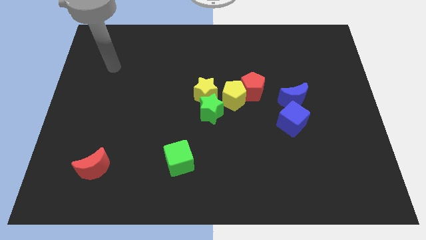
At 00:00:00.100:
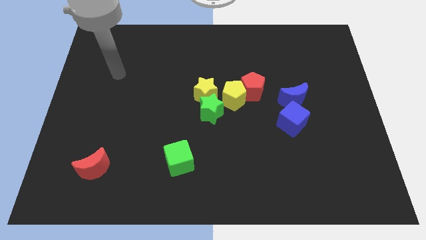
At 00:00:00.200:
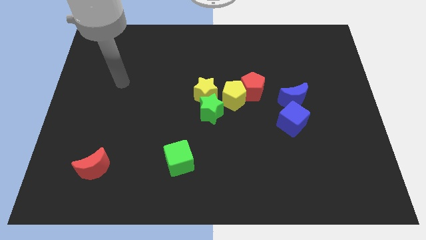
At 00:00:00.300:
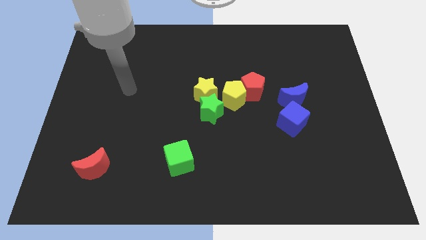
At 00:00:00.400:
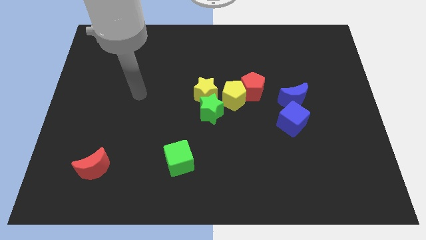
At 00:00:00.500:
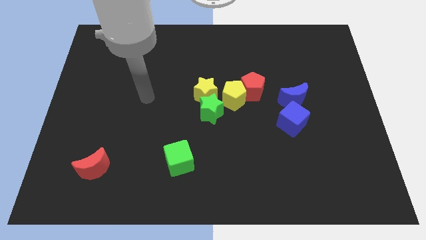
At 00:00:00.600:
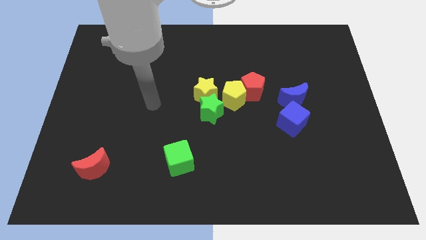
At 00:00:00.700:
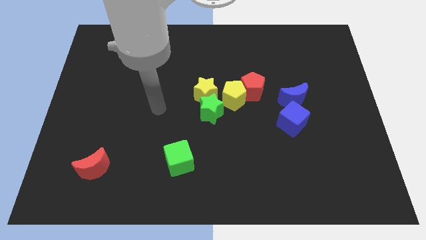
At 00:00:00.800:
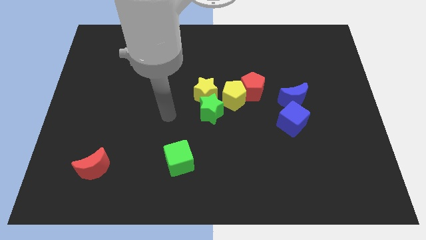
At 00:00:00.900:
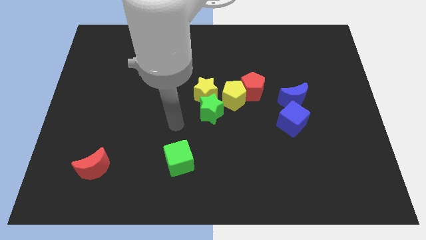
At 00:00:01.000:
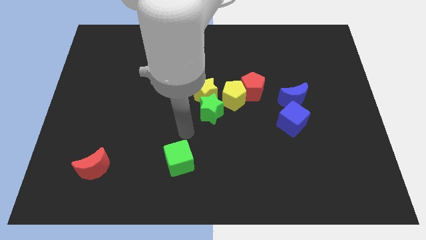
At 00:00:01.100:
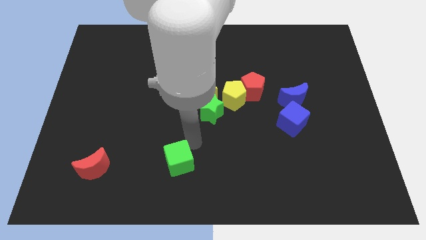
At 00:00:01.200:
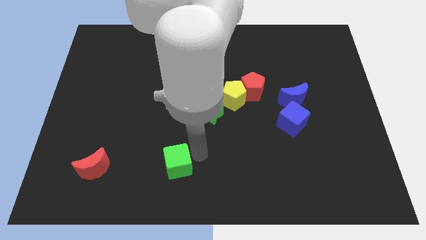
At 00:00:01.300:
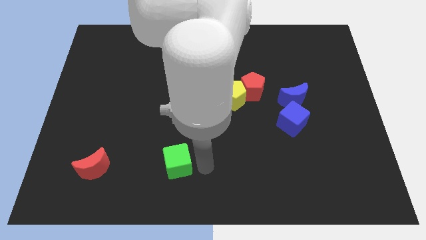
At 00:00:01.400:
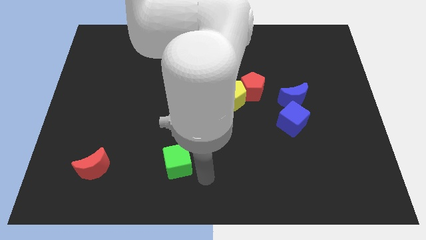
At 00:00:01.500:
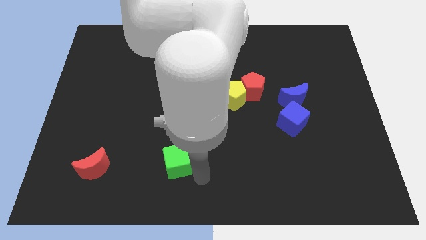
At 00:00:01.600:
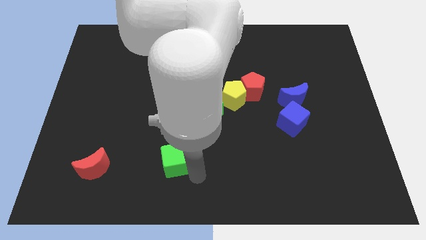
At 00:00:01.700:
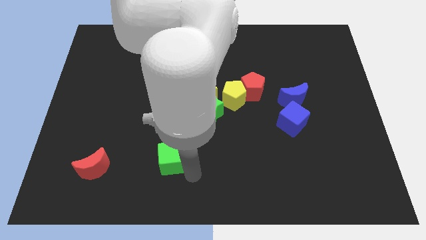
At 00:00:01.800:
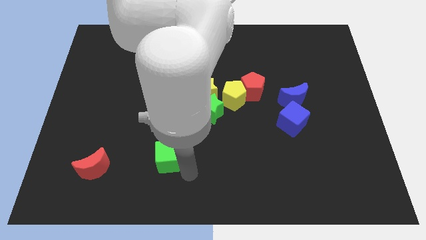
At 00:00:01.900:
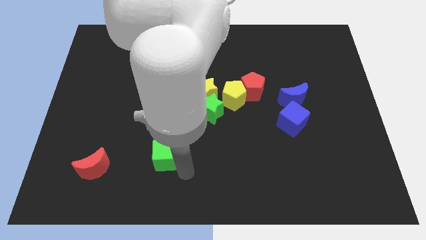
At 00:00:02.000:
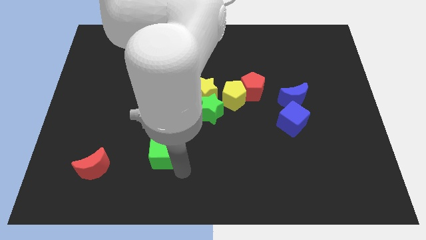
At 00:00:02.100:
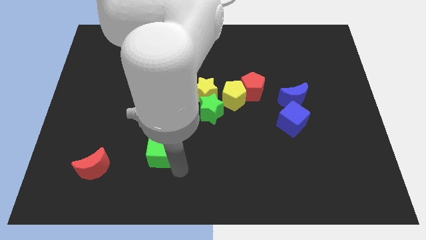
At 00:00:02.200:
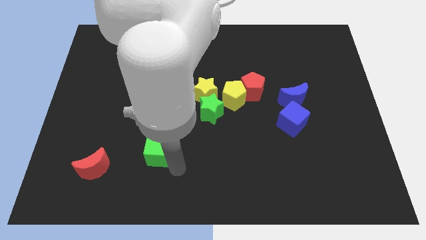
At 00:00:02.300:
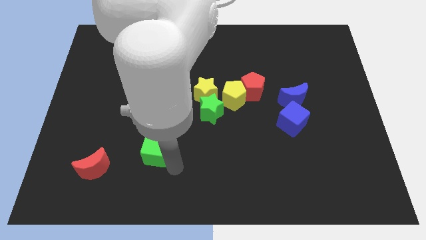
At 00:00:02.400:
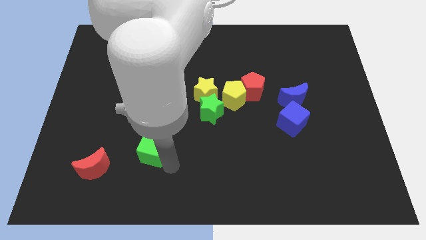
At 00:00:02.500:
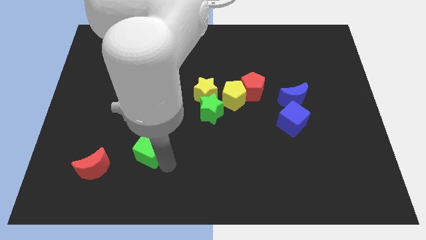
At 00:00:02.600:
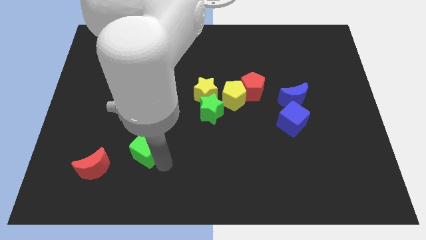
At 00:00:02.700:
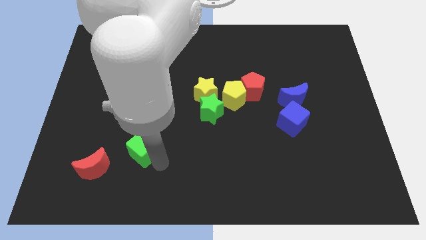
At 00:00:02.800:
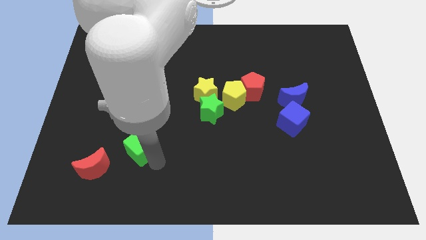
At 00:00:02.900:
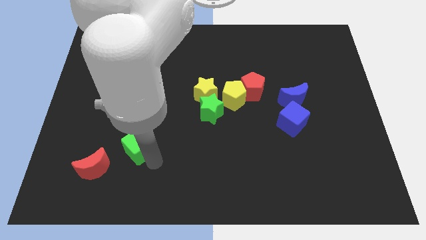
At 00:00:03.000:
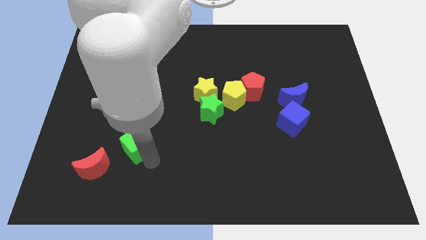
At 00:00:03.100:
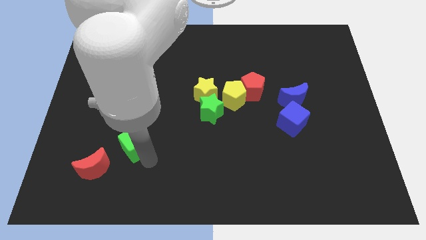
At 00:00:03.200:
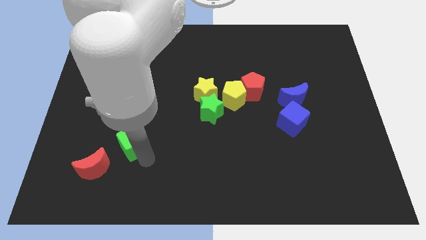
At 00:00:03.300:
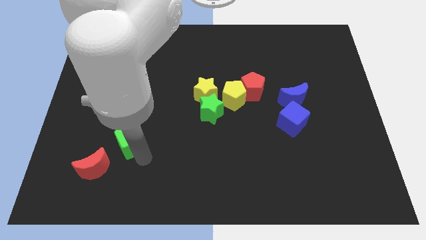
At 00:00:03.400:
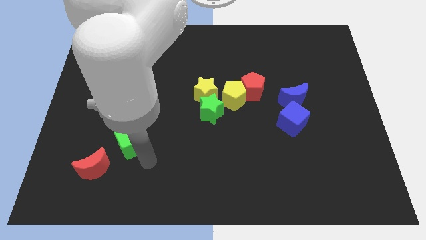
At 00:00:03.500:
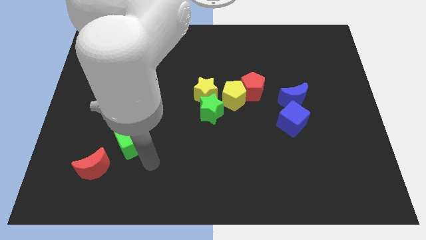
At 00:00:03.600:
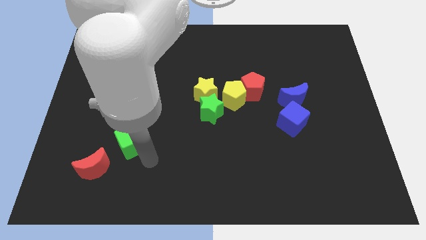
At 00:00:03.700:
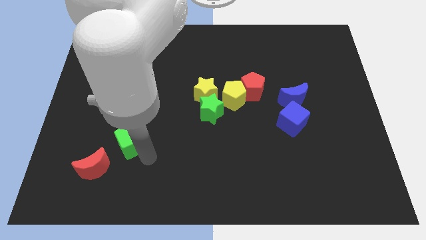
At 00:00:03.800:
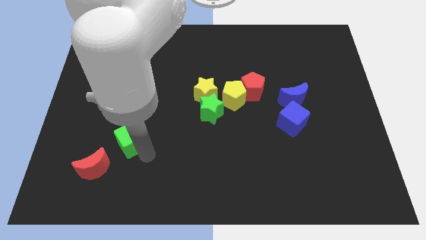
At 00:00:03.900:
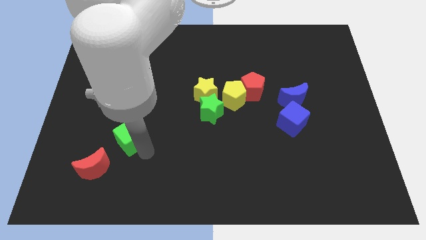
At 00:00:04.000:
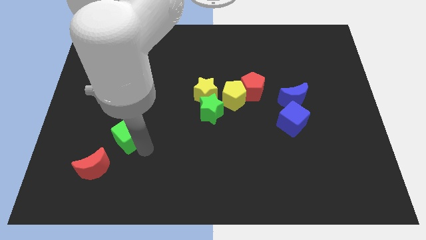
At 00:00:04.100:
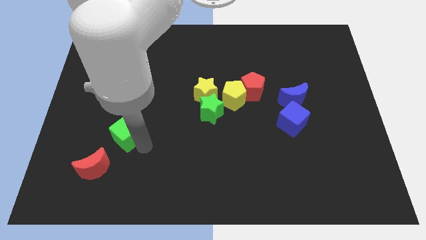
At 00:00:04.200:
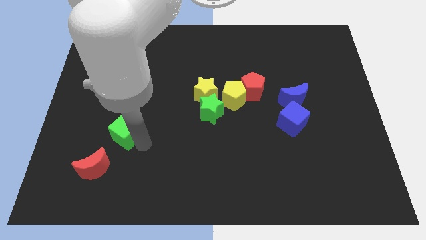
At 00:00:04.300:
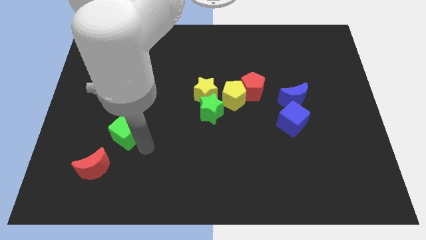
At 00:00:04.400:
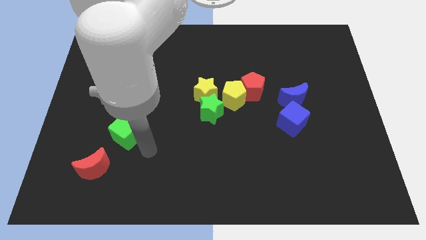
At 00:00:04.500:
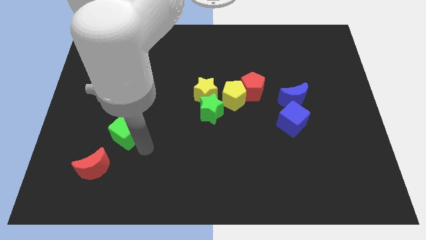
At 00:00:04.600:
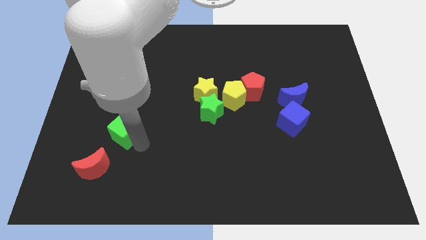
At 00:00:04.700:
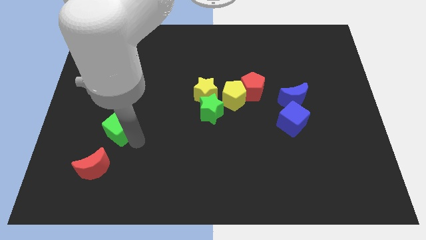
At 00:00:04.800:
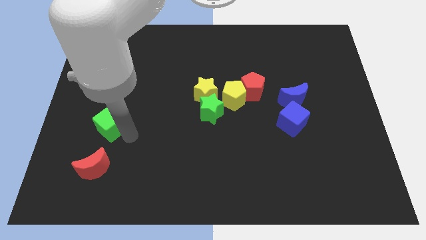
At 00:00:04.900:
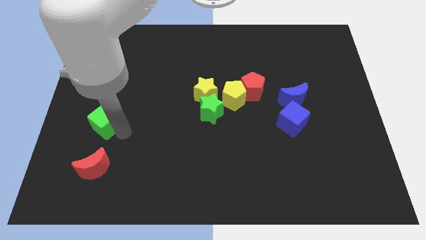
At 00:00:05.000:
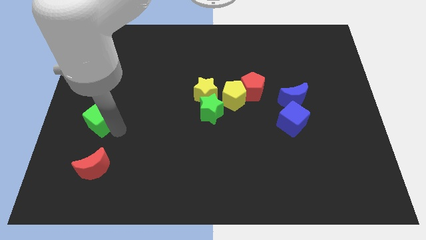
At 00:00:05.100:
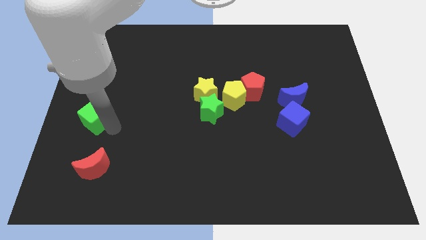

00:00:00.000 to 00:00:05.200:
slide the green cube to the left side of the board

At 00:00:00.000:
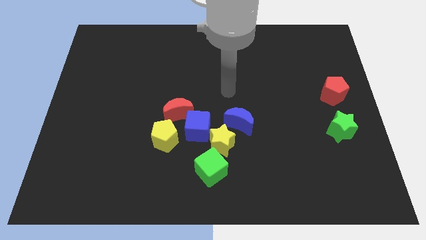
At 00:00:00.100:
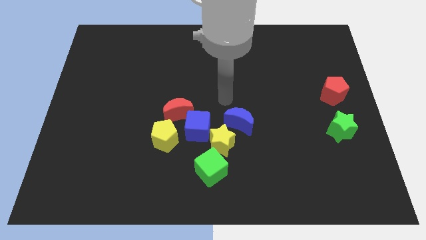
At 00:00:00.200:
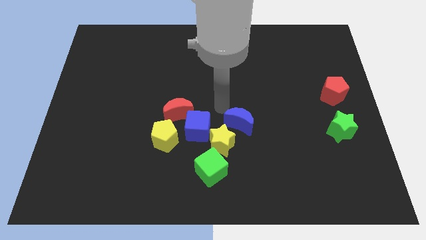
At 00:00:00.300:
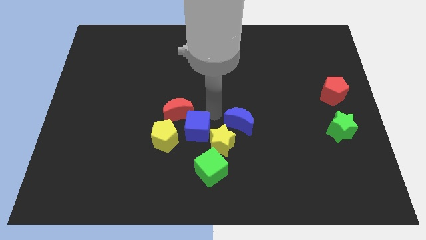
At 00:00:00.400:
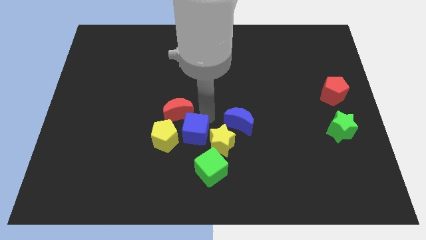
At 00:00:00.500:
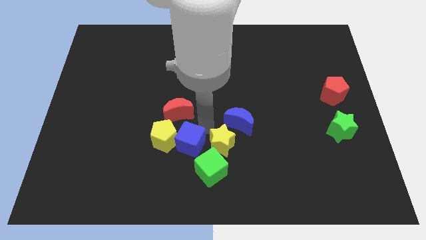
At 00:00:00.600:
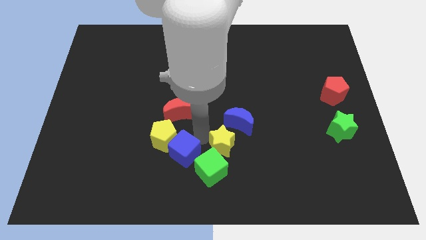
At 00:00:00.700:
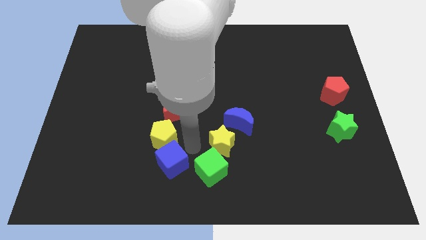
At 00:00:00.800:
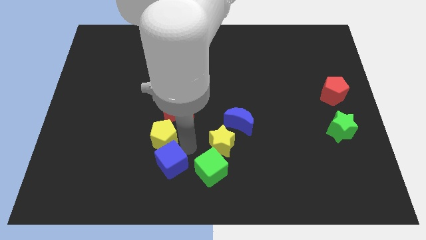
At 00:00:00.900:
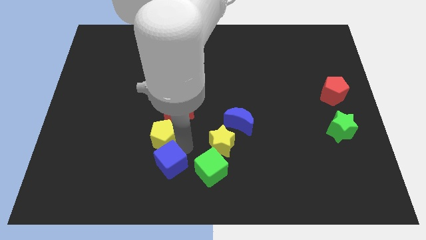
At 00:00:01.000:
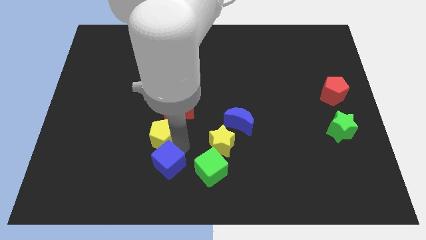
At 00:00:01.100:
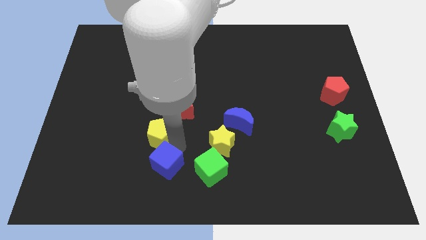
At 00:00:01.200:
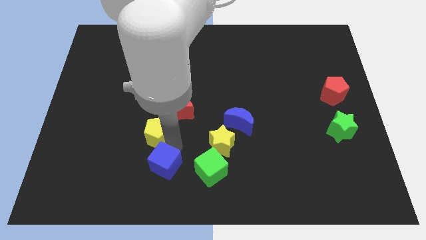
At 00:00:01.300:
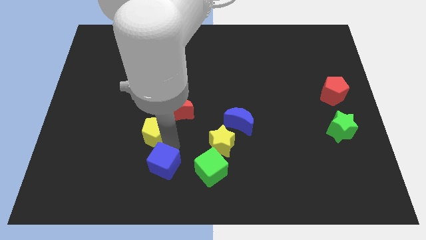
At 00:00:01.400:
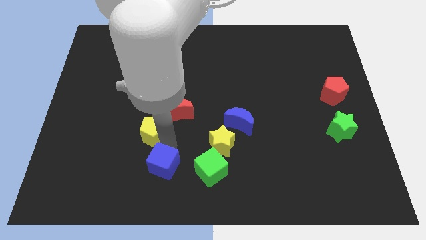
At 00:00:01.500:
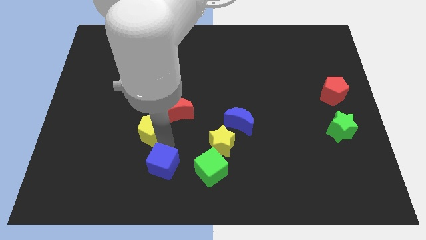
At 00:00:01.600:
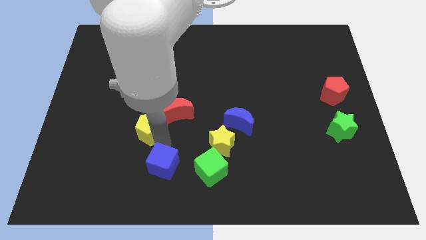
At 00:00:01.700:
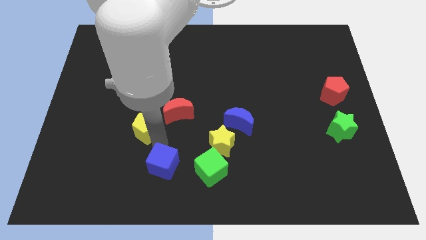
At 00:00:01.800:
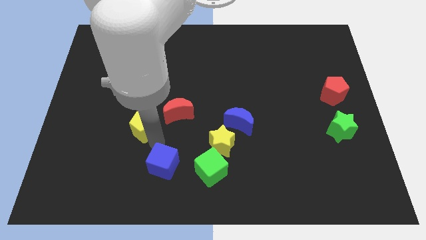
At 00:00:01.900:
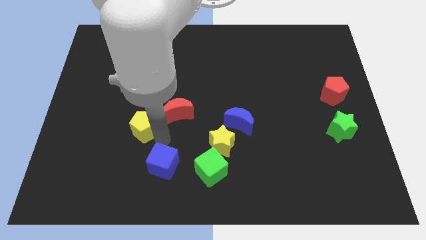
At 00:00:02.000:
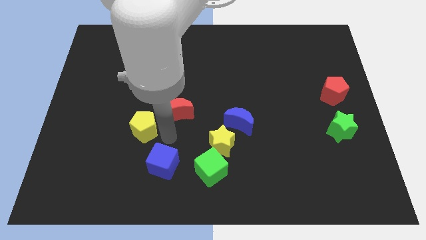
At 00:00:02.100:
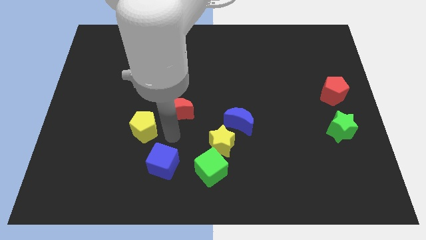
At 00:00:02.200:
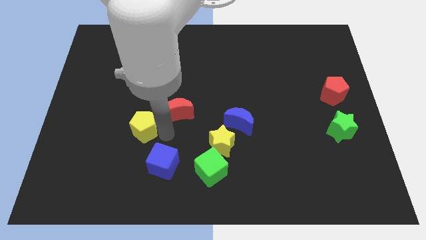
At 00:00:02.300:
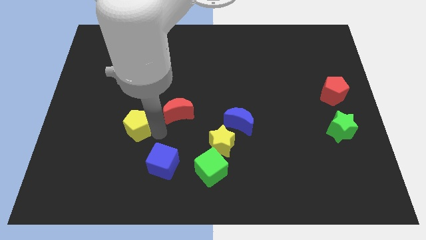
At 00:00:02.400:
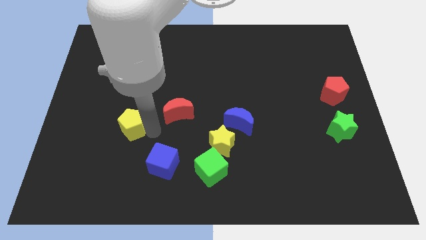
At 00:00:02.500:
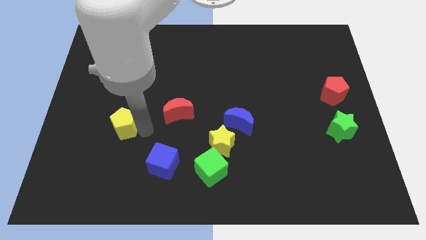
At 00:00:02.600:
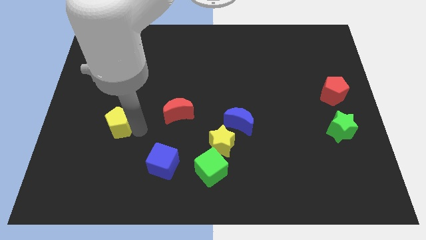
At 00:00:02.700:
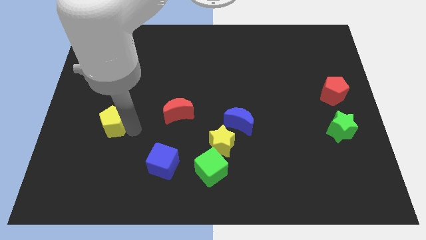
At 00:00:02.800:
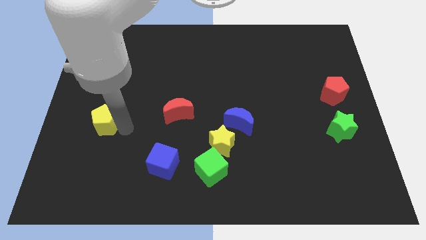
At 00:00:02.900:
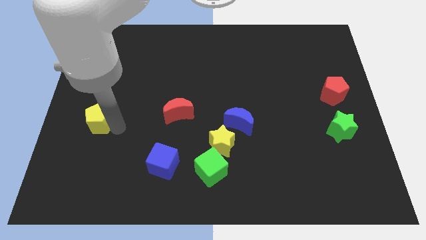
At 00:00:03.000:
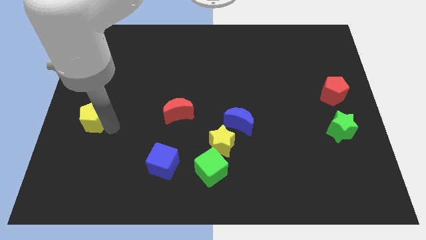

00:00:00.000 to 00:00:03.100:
move the yellow pentagon to the center left
